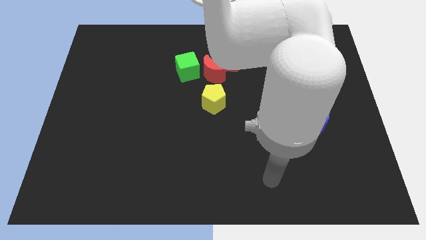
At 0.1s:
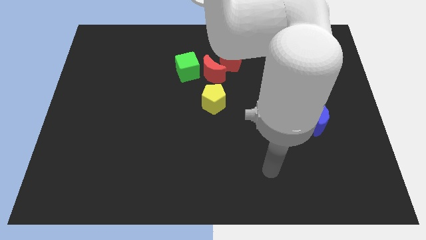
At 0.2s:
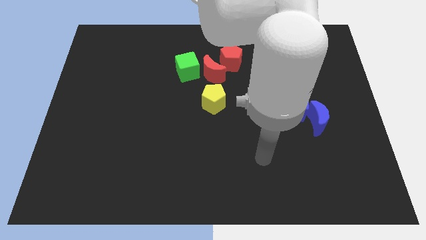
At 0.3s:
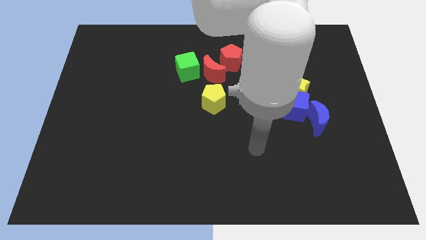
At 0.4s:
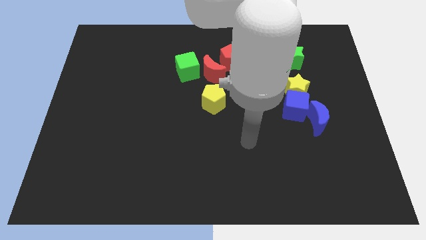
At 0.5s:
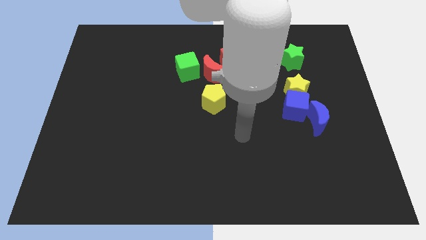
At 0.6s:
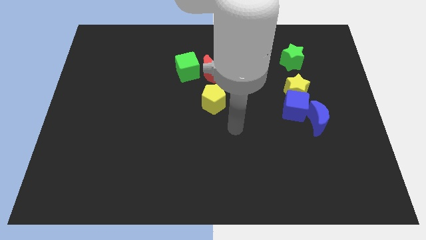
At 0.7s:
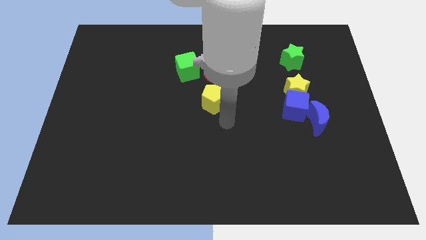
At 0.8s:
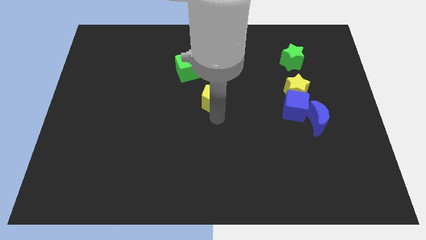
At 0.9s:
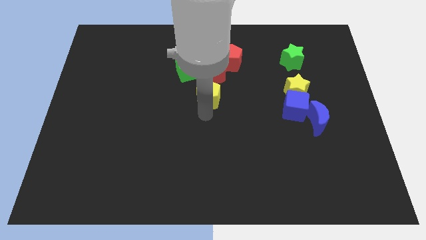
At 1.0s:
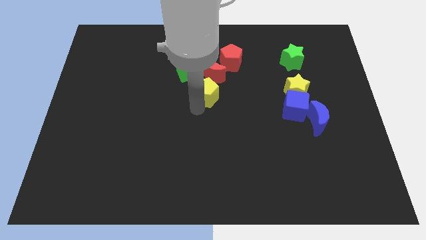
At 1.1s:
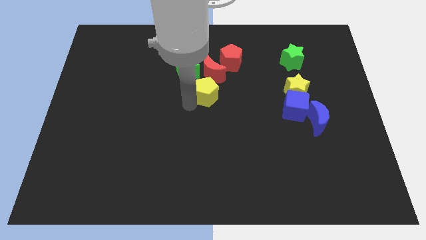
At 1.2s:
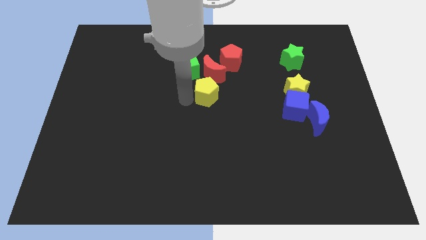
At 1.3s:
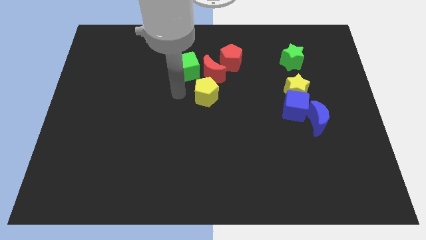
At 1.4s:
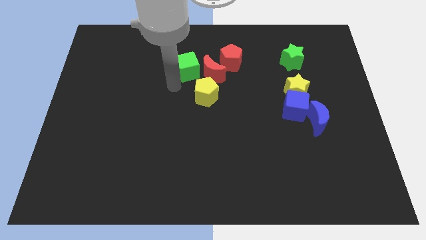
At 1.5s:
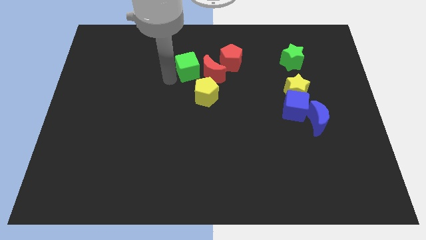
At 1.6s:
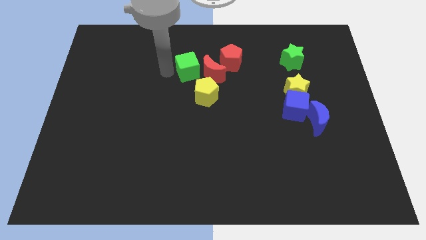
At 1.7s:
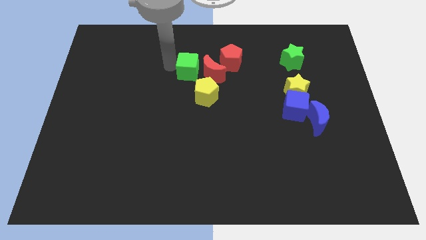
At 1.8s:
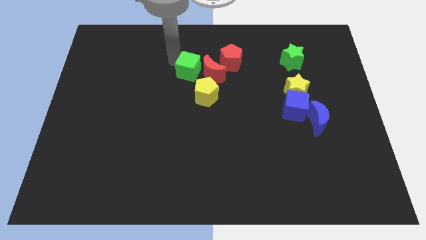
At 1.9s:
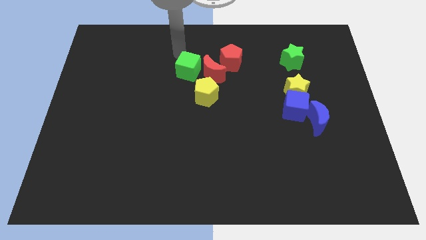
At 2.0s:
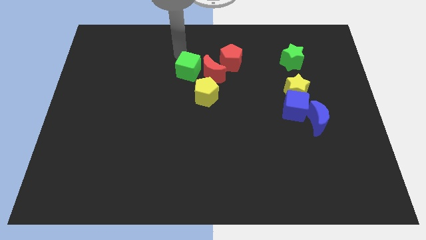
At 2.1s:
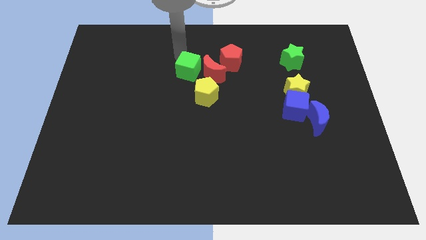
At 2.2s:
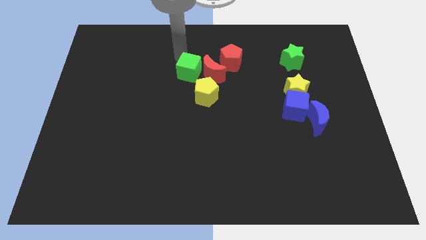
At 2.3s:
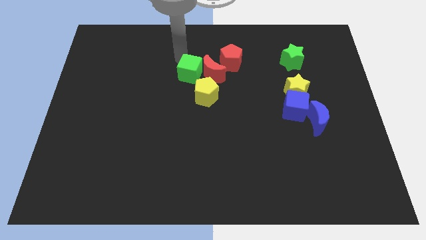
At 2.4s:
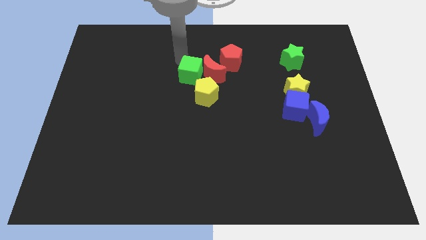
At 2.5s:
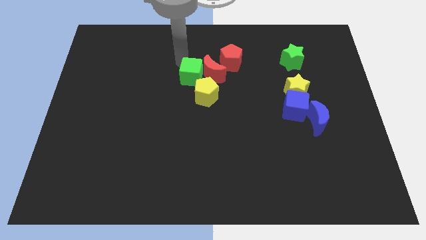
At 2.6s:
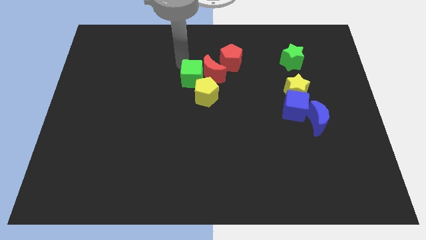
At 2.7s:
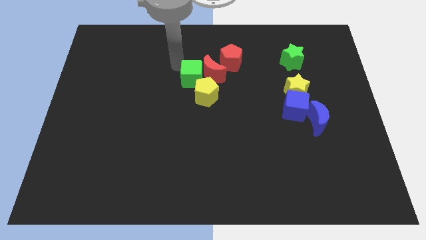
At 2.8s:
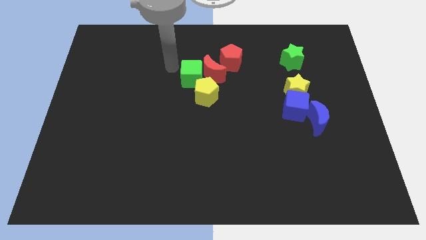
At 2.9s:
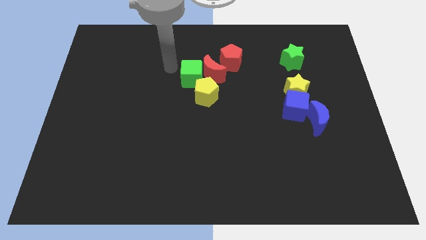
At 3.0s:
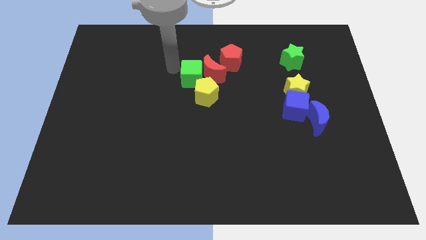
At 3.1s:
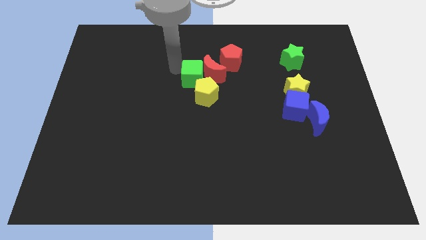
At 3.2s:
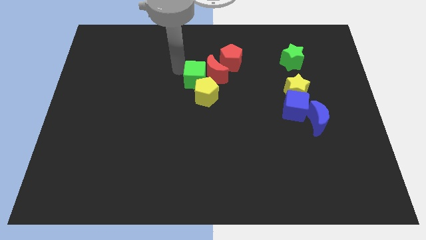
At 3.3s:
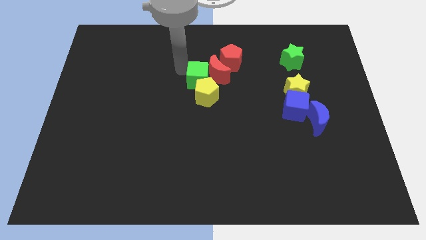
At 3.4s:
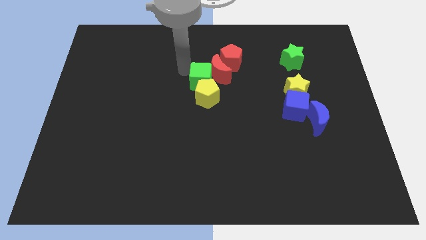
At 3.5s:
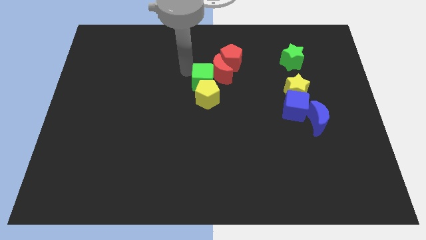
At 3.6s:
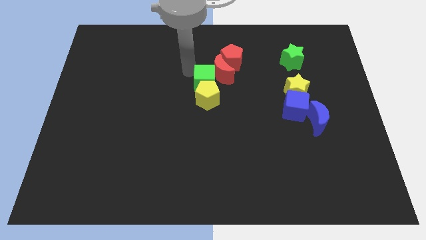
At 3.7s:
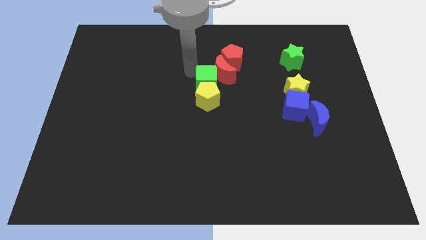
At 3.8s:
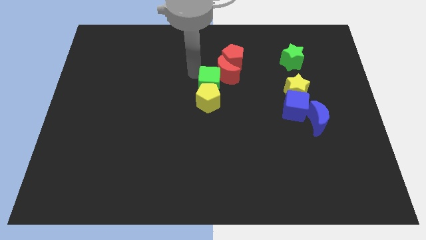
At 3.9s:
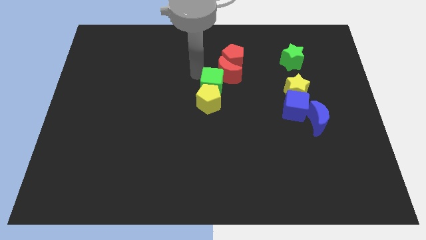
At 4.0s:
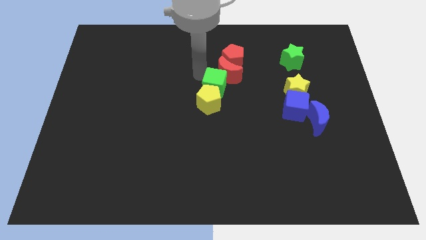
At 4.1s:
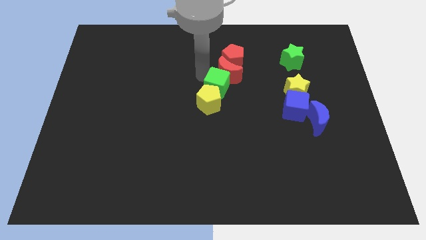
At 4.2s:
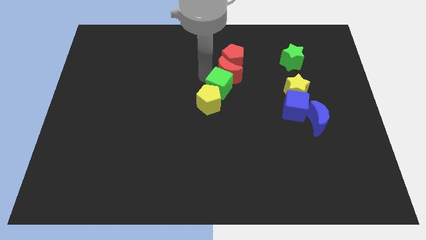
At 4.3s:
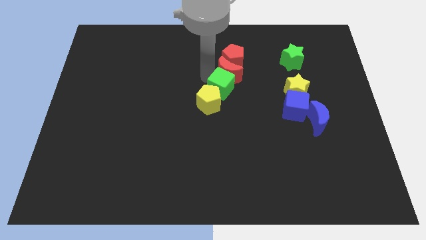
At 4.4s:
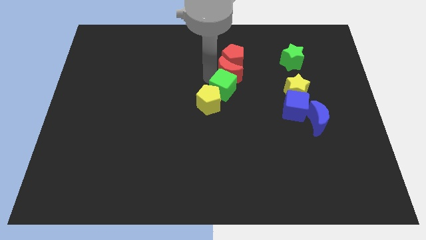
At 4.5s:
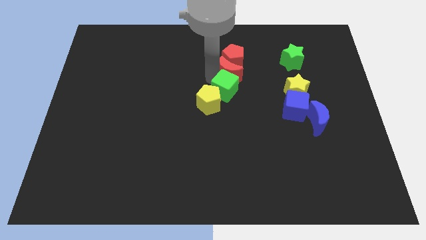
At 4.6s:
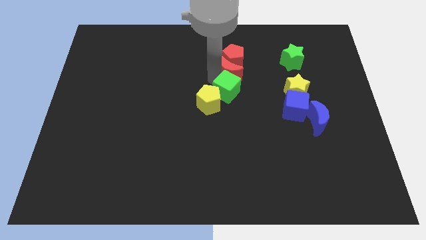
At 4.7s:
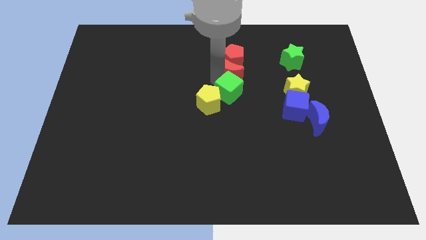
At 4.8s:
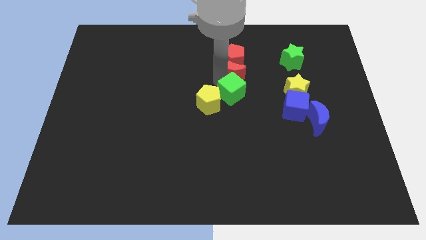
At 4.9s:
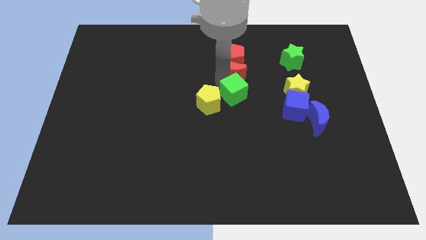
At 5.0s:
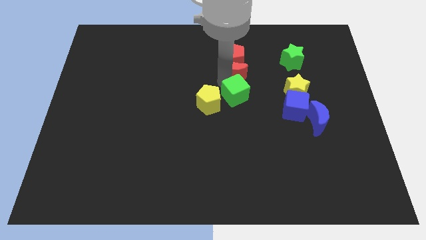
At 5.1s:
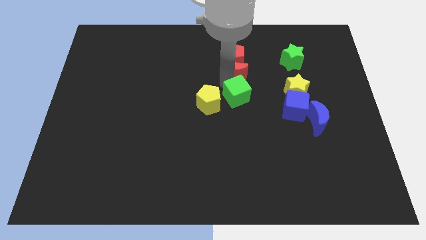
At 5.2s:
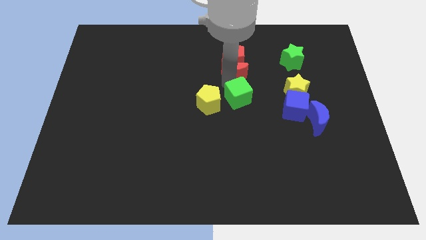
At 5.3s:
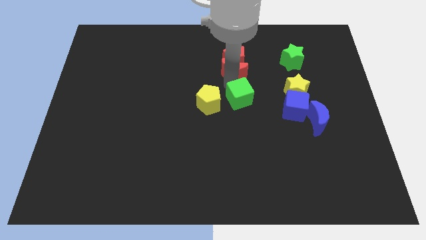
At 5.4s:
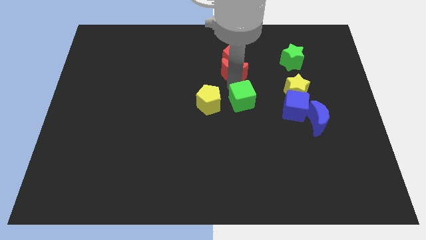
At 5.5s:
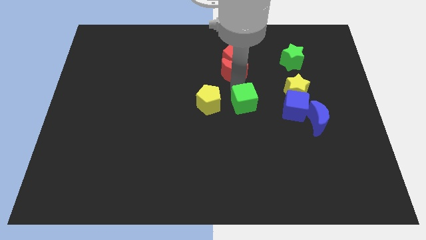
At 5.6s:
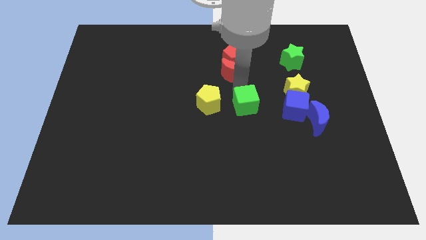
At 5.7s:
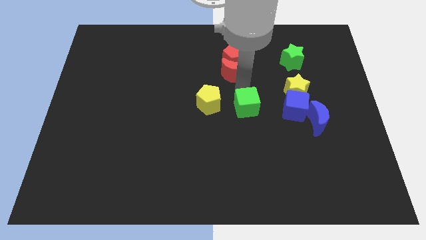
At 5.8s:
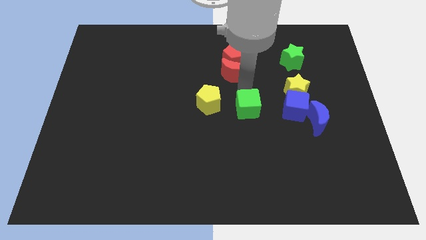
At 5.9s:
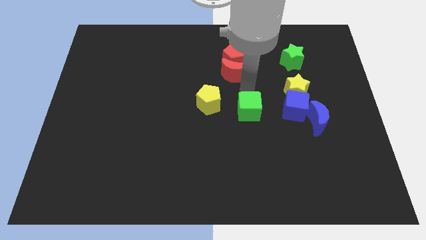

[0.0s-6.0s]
move the green cube downwards and right

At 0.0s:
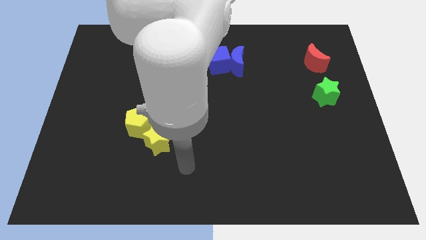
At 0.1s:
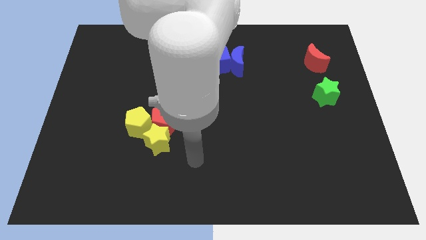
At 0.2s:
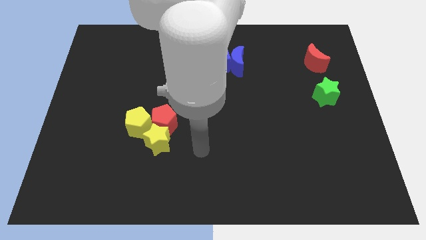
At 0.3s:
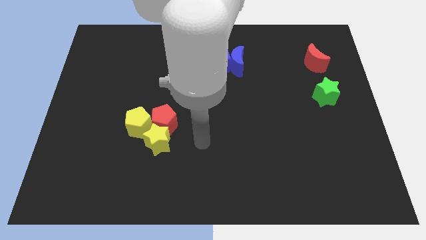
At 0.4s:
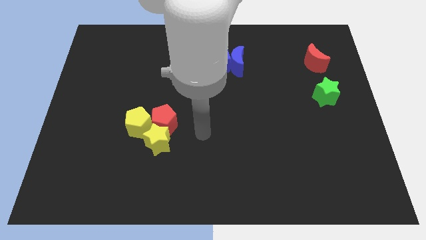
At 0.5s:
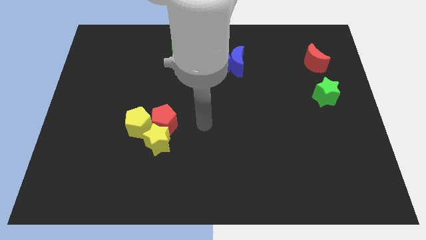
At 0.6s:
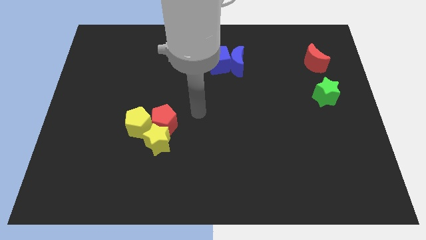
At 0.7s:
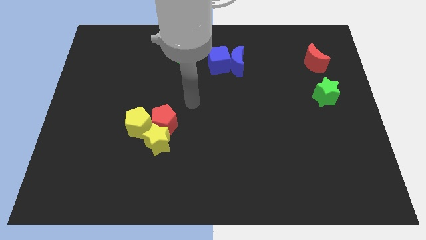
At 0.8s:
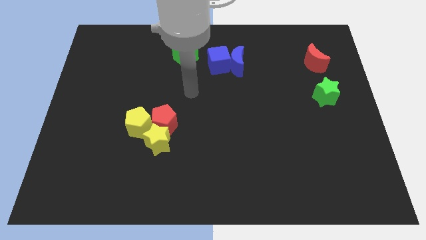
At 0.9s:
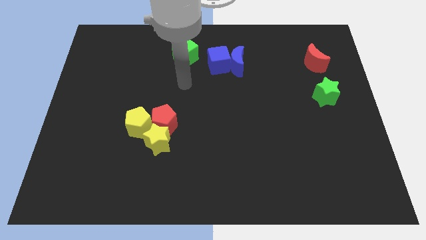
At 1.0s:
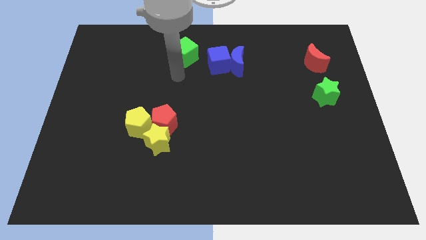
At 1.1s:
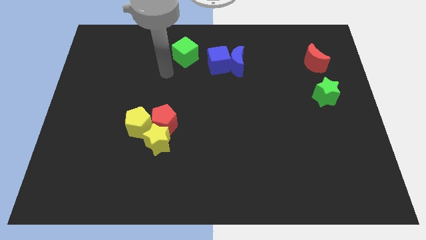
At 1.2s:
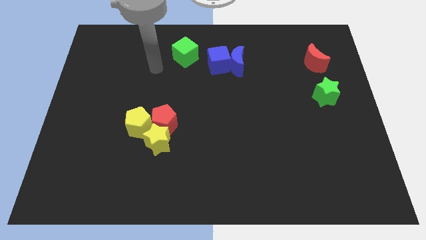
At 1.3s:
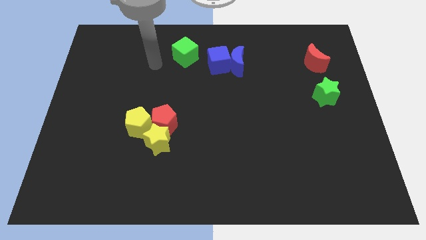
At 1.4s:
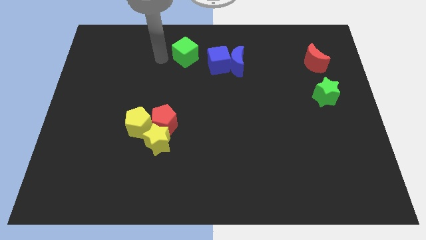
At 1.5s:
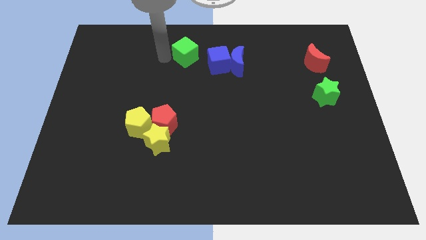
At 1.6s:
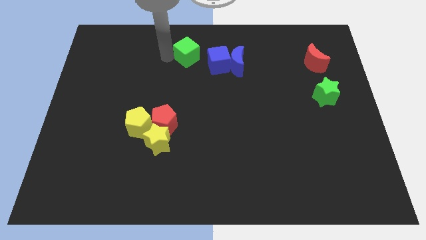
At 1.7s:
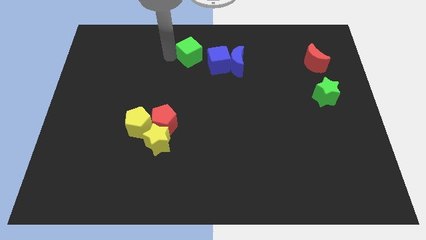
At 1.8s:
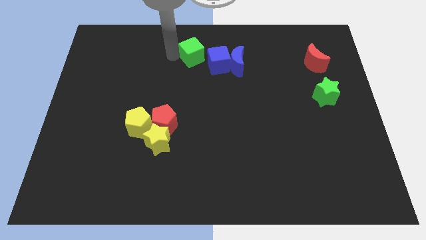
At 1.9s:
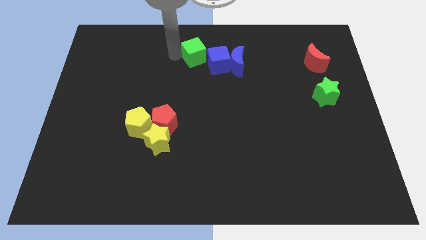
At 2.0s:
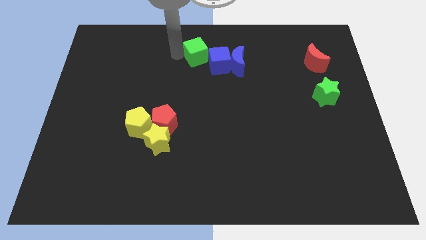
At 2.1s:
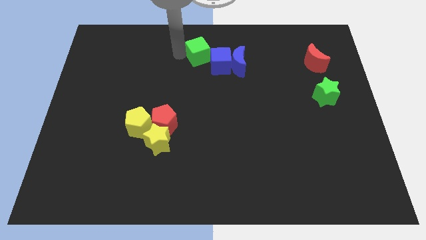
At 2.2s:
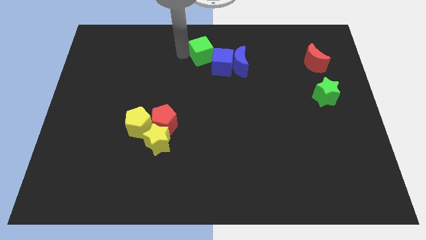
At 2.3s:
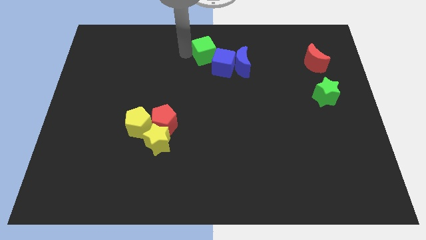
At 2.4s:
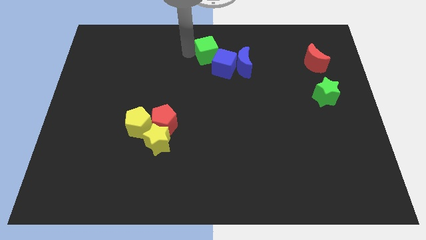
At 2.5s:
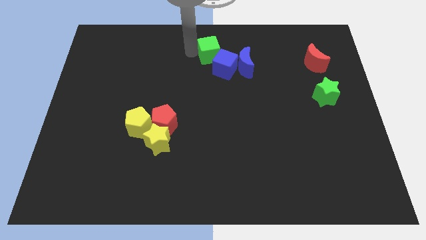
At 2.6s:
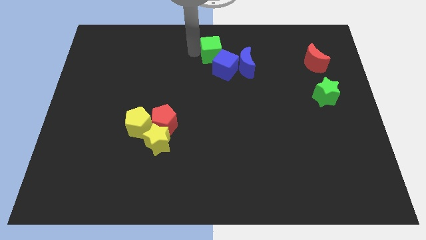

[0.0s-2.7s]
move the green cube right somewhat
